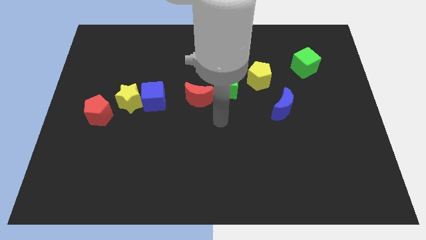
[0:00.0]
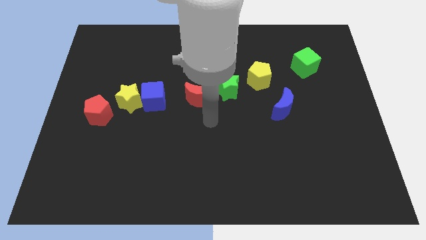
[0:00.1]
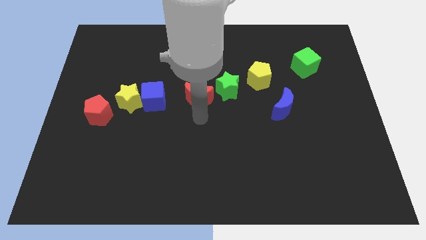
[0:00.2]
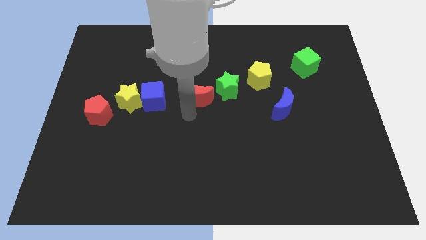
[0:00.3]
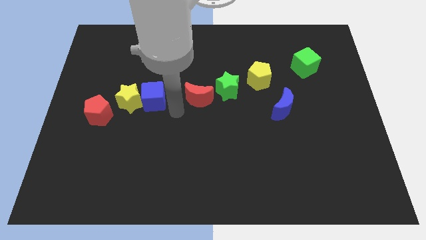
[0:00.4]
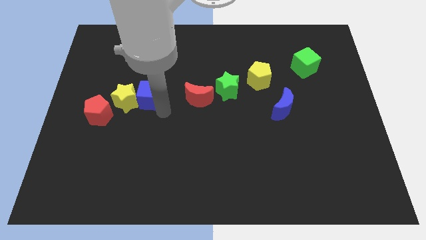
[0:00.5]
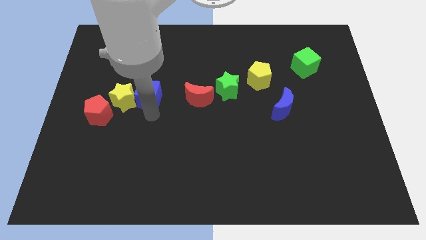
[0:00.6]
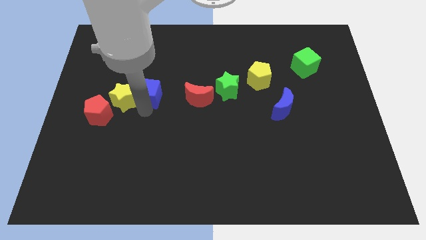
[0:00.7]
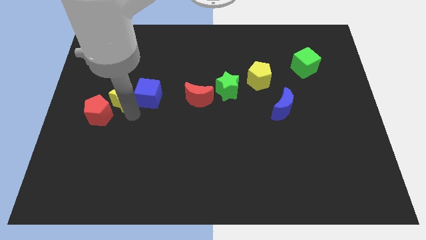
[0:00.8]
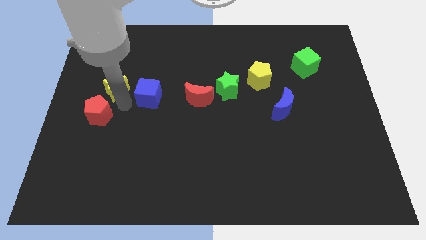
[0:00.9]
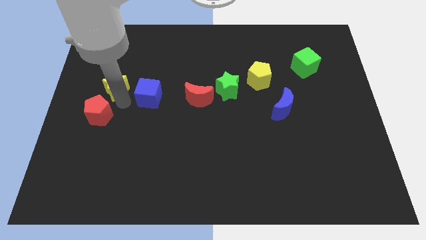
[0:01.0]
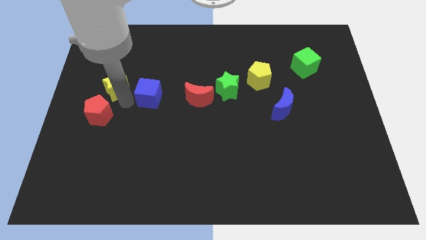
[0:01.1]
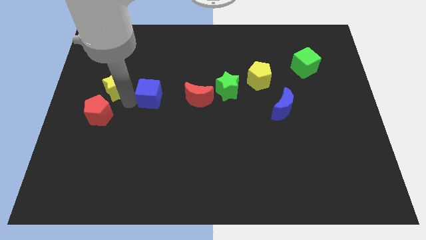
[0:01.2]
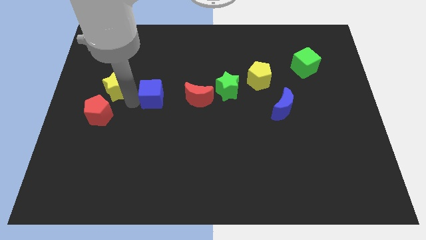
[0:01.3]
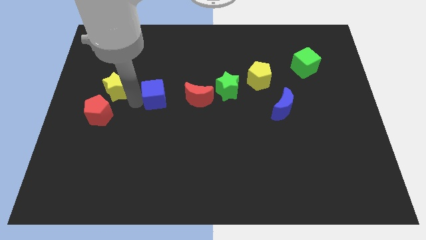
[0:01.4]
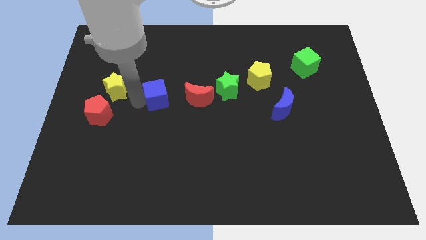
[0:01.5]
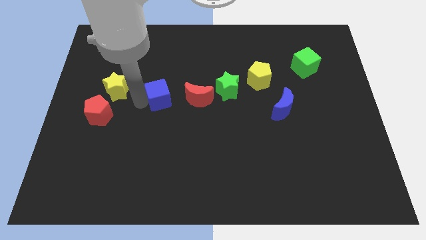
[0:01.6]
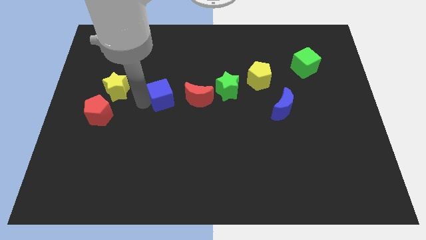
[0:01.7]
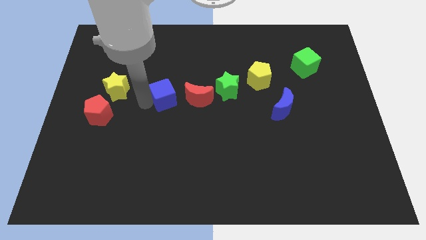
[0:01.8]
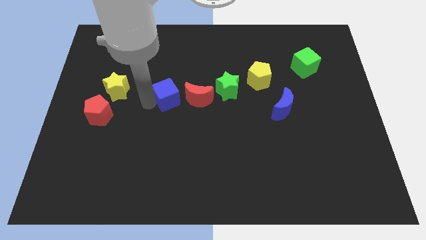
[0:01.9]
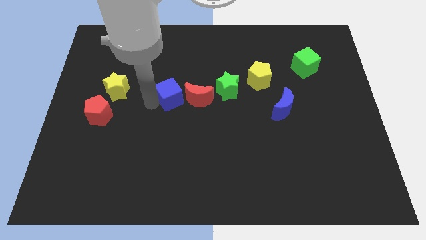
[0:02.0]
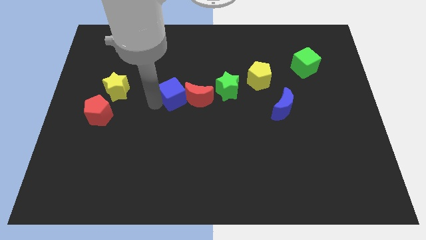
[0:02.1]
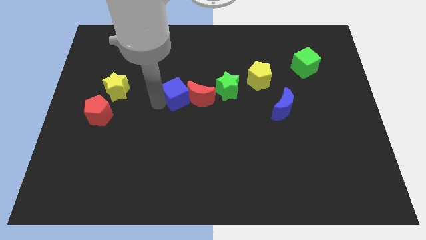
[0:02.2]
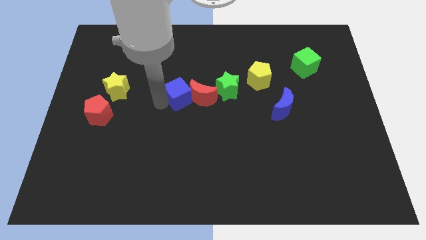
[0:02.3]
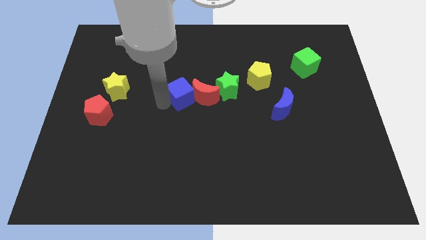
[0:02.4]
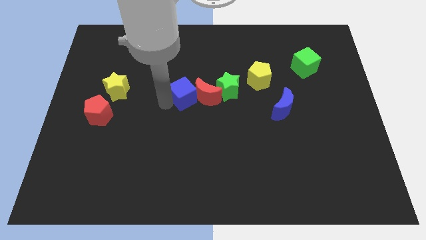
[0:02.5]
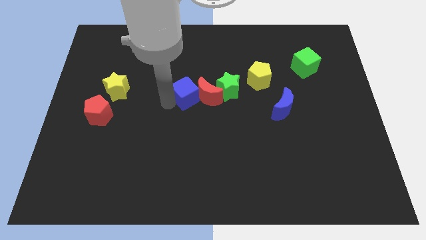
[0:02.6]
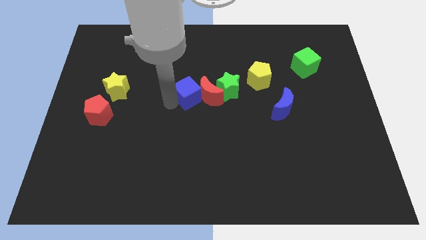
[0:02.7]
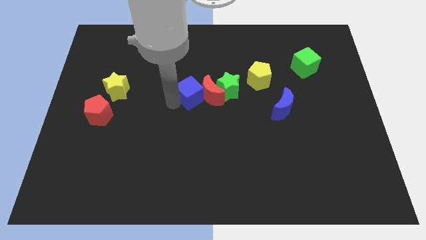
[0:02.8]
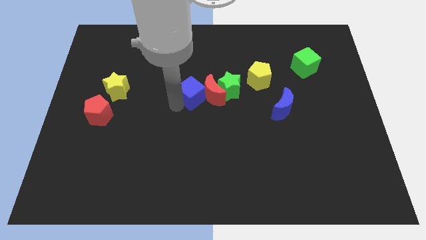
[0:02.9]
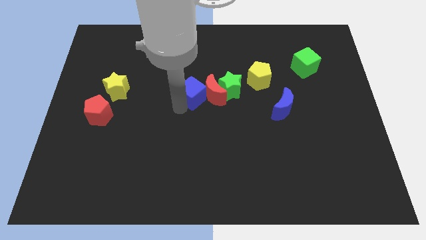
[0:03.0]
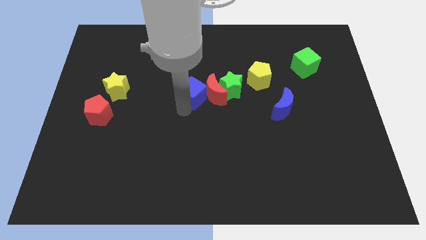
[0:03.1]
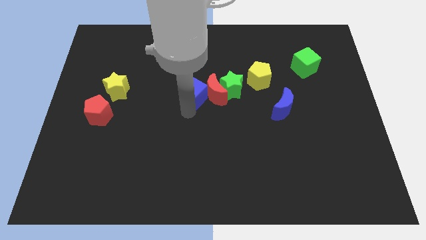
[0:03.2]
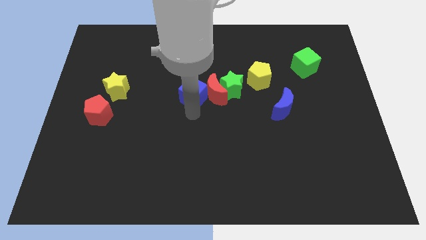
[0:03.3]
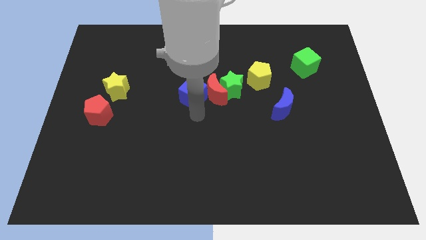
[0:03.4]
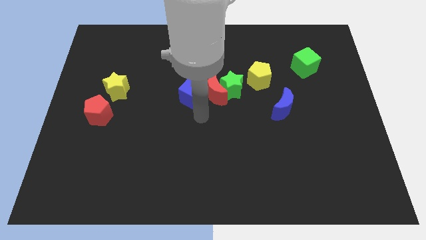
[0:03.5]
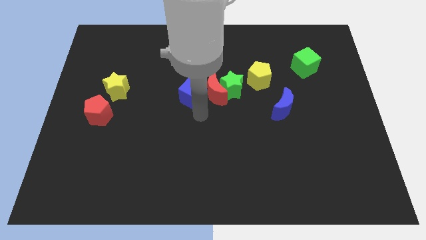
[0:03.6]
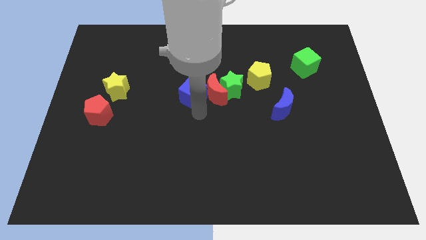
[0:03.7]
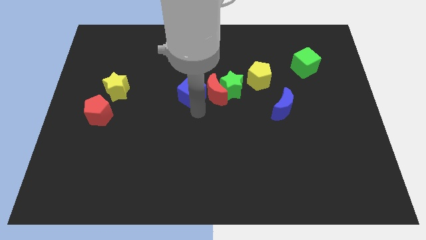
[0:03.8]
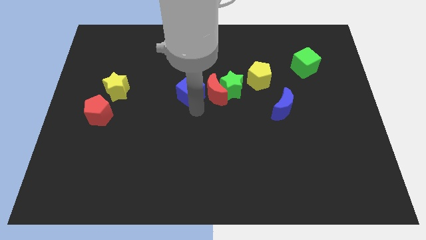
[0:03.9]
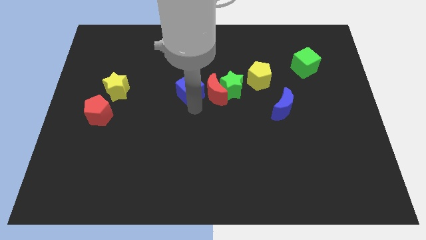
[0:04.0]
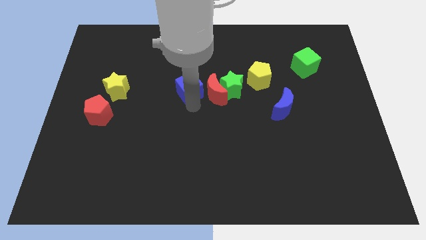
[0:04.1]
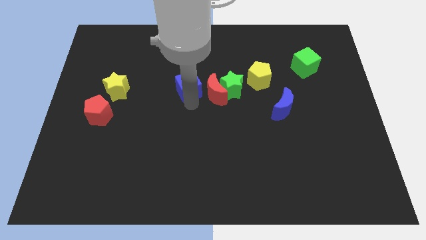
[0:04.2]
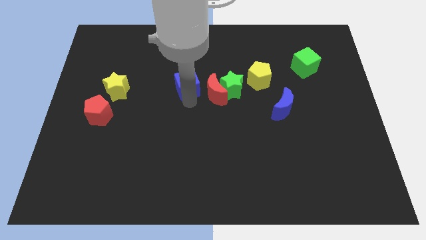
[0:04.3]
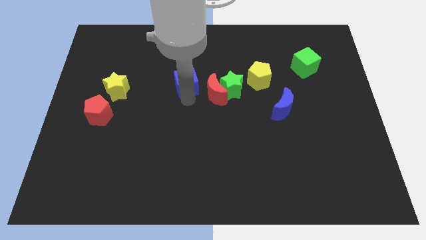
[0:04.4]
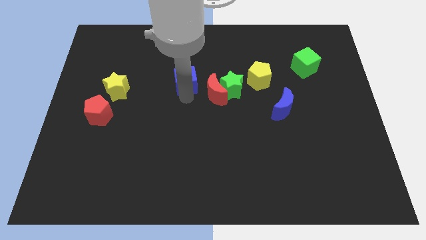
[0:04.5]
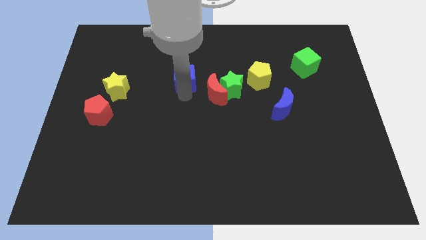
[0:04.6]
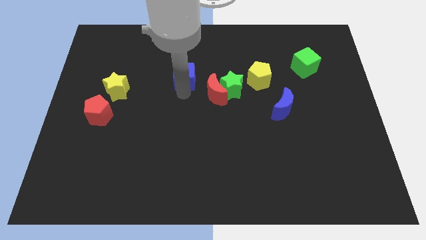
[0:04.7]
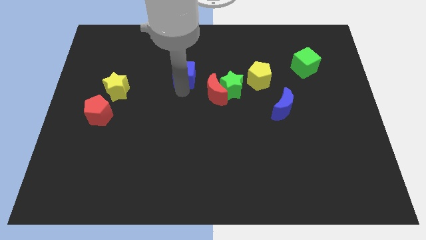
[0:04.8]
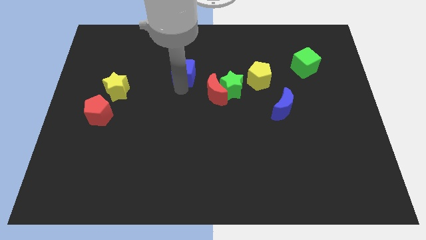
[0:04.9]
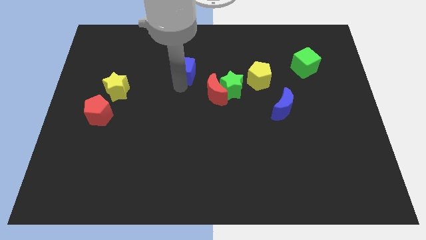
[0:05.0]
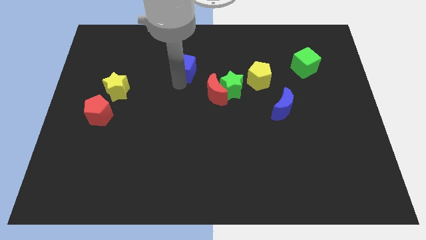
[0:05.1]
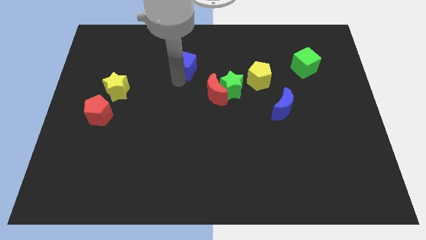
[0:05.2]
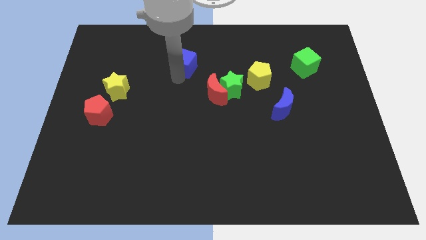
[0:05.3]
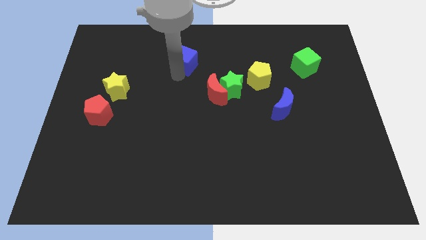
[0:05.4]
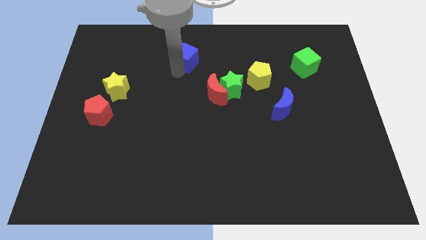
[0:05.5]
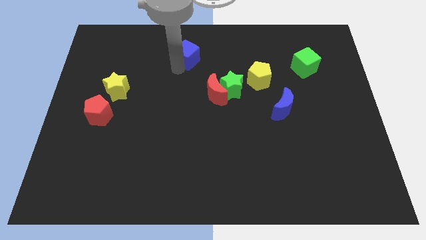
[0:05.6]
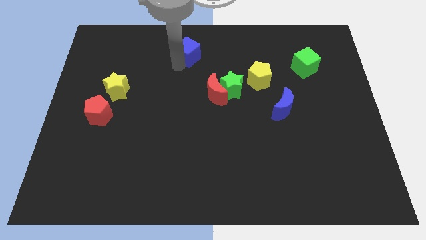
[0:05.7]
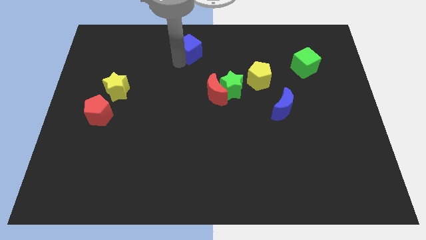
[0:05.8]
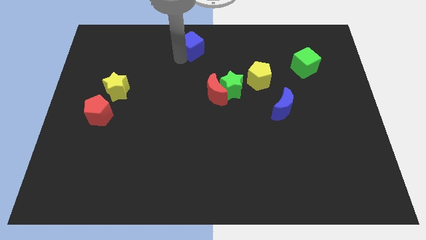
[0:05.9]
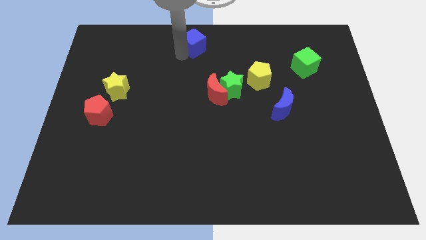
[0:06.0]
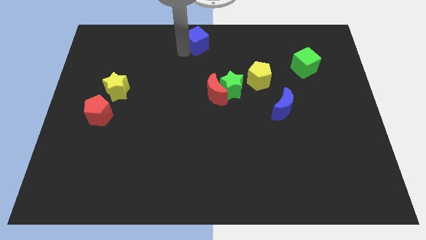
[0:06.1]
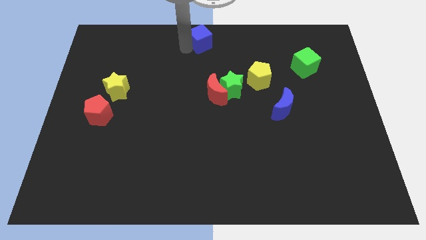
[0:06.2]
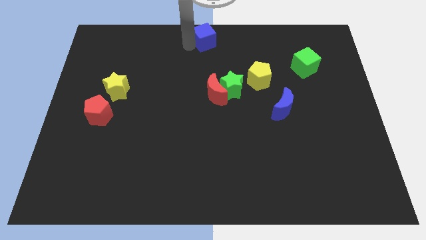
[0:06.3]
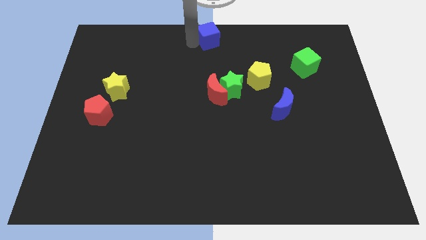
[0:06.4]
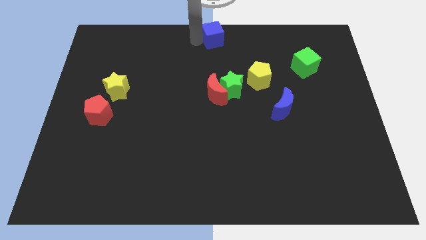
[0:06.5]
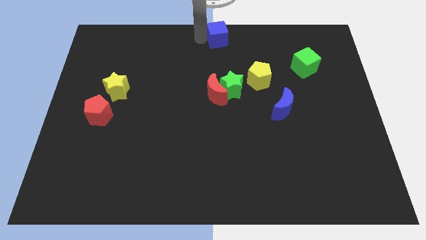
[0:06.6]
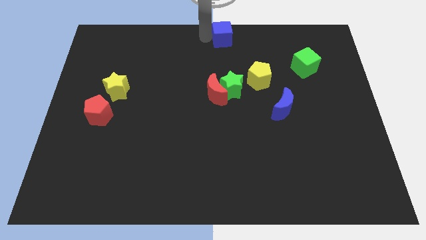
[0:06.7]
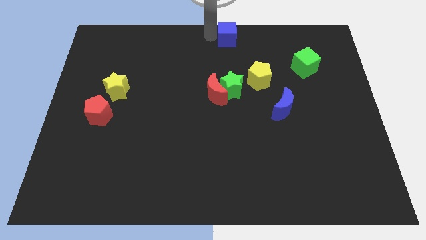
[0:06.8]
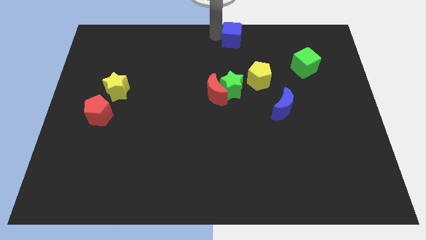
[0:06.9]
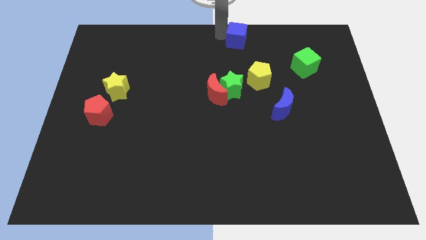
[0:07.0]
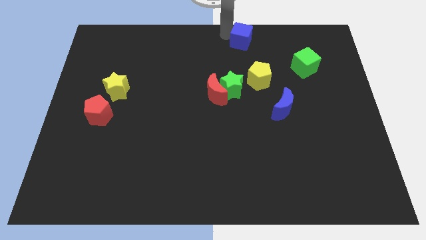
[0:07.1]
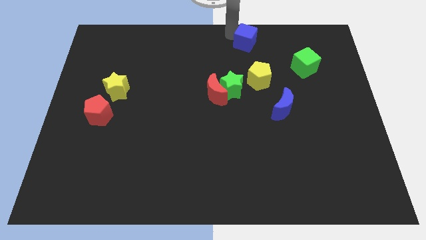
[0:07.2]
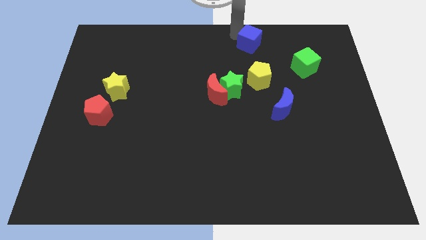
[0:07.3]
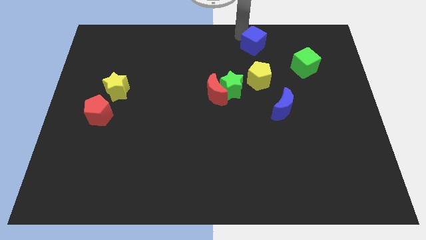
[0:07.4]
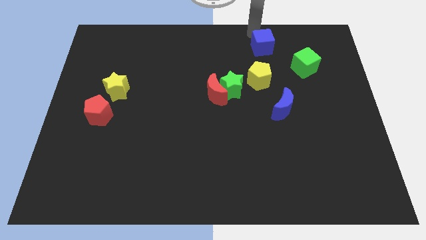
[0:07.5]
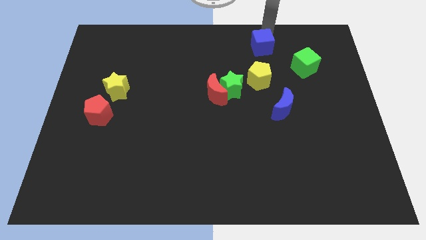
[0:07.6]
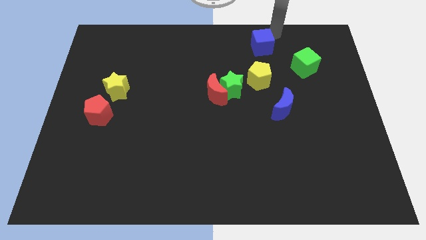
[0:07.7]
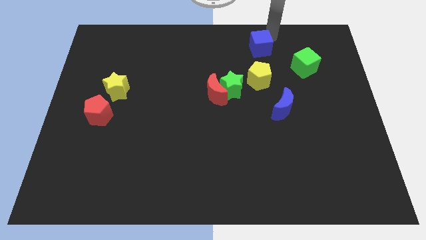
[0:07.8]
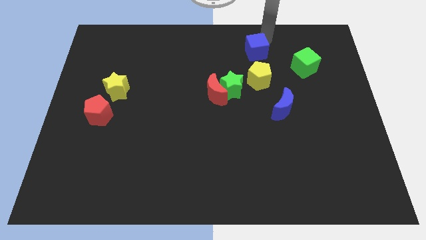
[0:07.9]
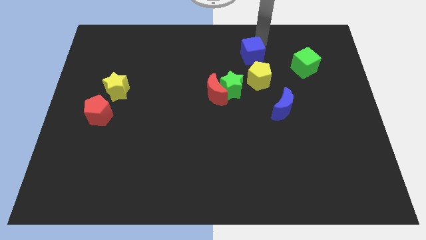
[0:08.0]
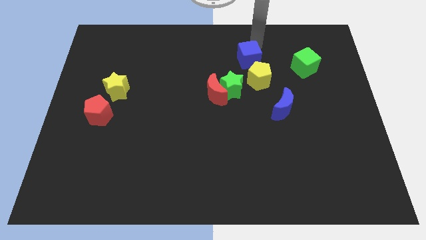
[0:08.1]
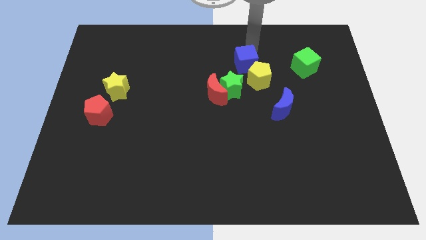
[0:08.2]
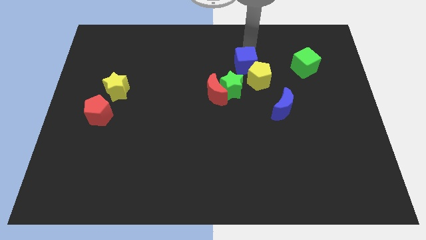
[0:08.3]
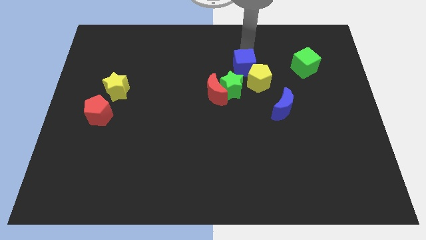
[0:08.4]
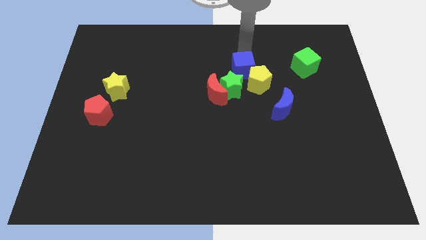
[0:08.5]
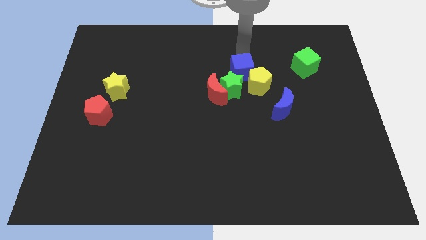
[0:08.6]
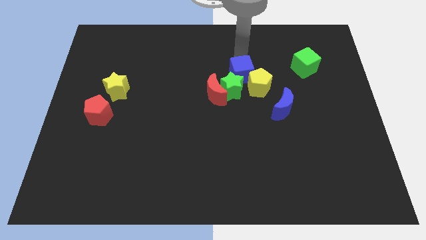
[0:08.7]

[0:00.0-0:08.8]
push the blue cube next to the green star
